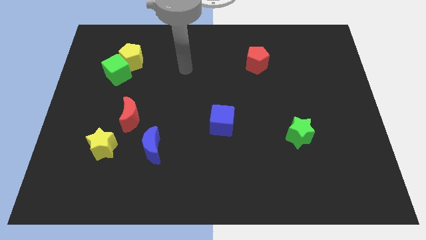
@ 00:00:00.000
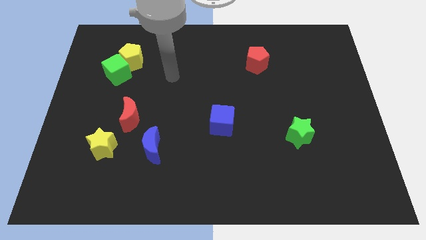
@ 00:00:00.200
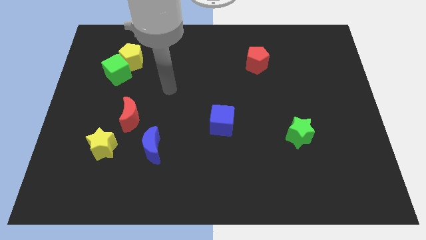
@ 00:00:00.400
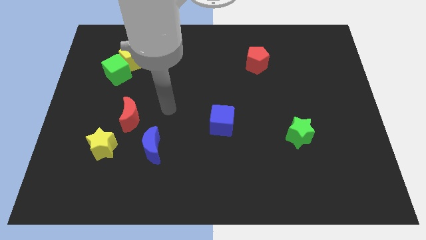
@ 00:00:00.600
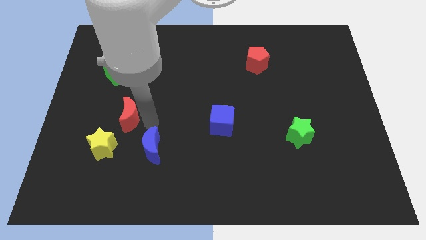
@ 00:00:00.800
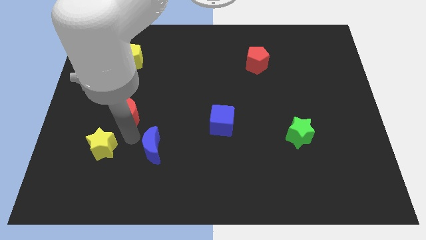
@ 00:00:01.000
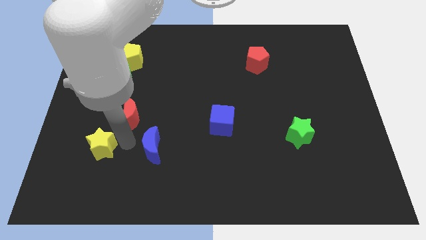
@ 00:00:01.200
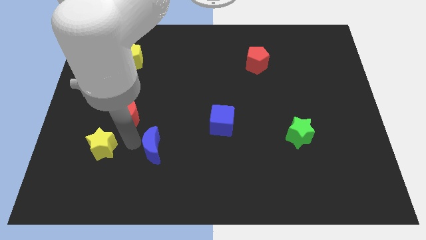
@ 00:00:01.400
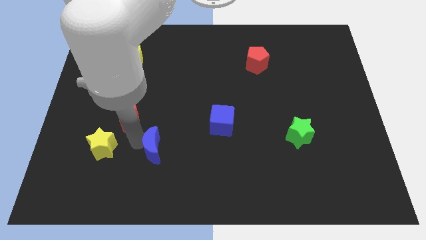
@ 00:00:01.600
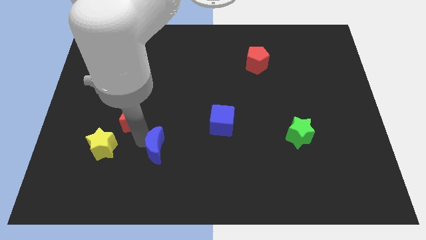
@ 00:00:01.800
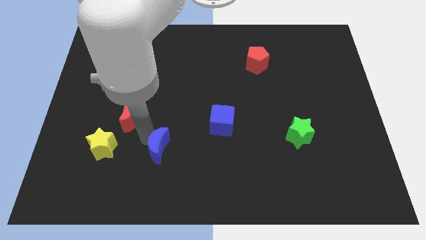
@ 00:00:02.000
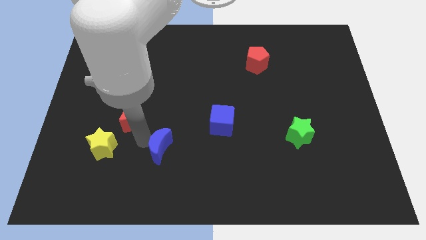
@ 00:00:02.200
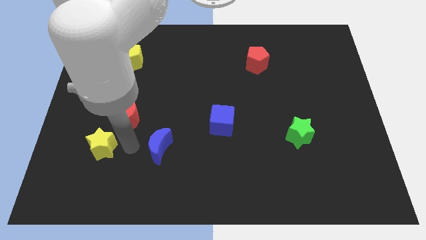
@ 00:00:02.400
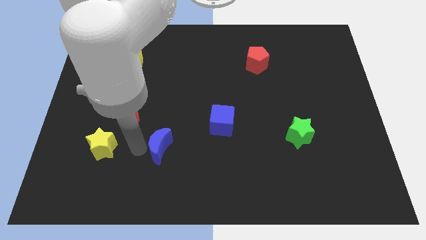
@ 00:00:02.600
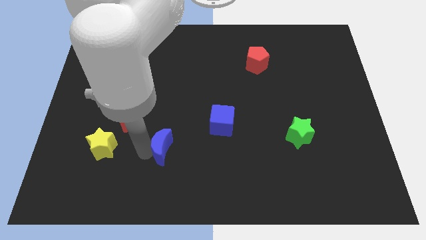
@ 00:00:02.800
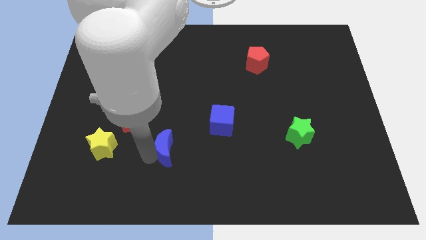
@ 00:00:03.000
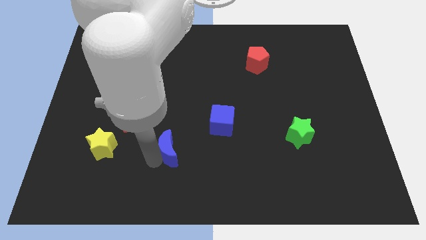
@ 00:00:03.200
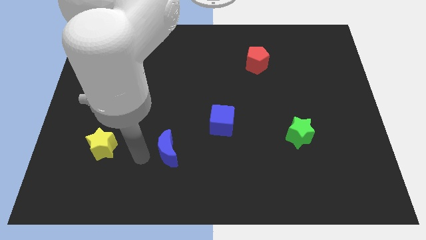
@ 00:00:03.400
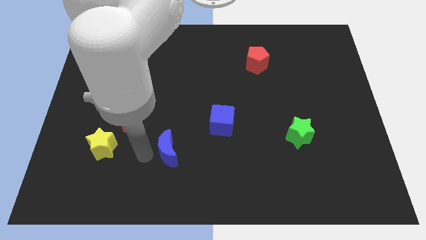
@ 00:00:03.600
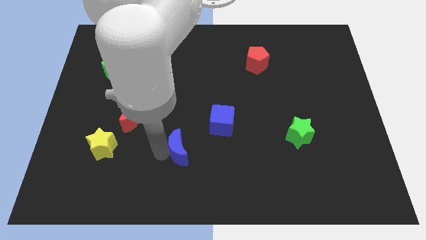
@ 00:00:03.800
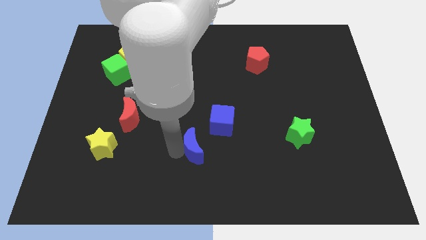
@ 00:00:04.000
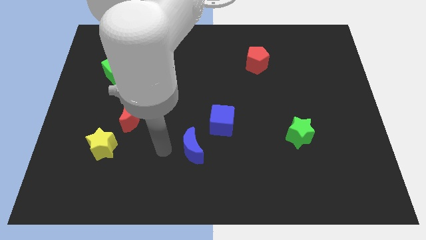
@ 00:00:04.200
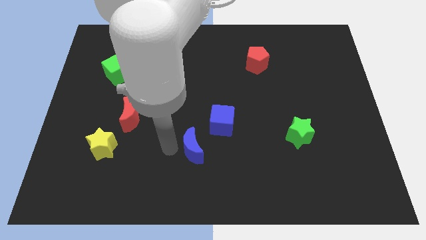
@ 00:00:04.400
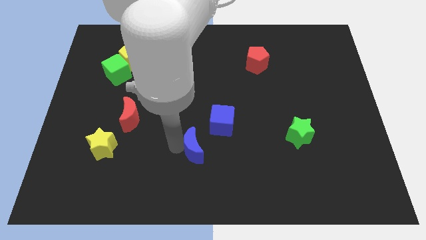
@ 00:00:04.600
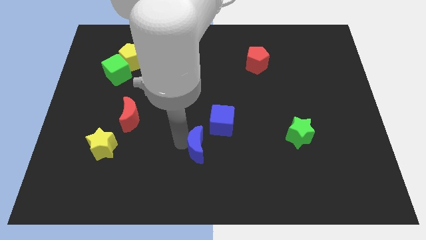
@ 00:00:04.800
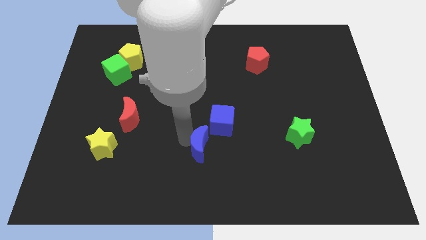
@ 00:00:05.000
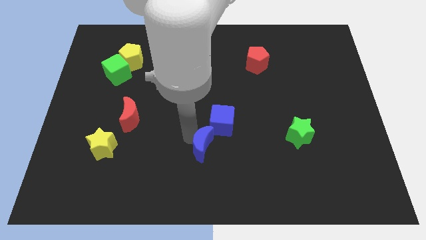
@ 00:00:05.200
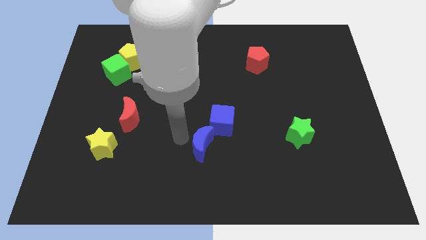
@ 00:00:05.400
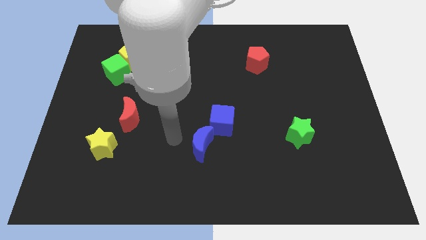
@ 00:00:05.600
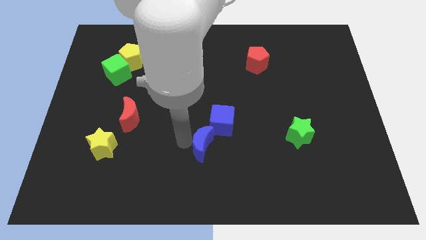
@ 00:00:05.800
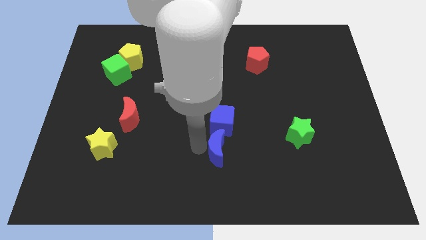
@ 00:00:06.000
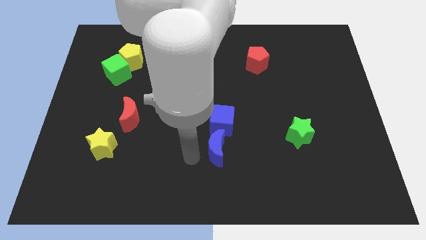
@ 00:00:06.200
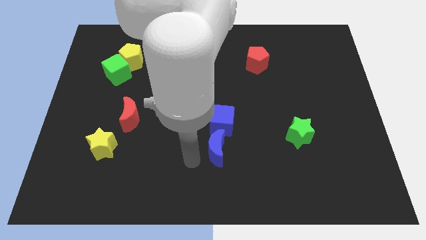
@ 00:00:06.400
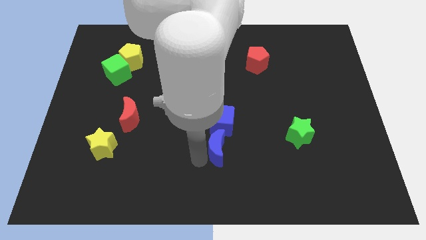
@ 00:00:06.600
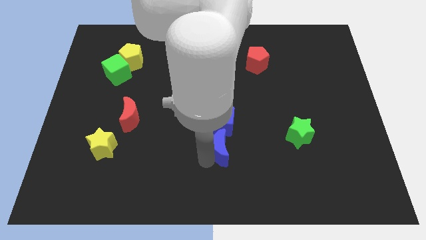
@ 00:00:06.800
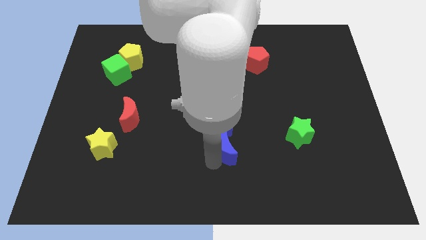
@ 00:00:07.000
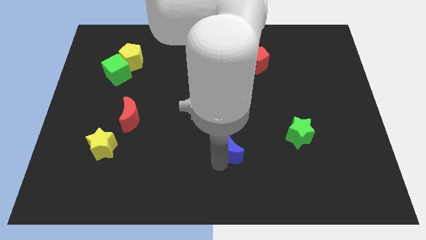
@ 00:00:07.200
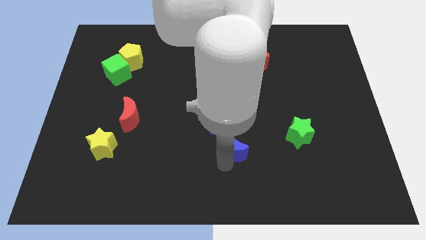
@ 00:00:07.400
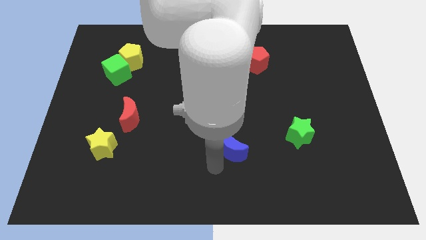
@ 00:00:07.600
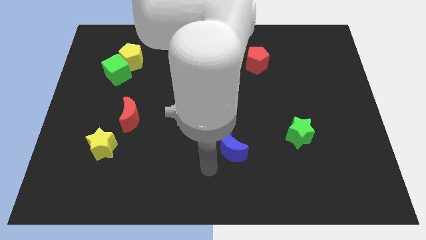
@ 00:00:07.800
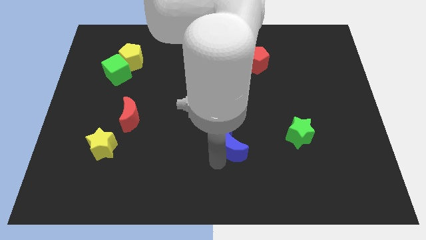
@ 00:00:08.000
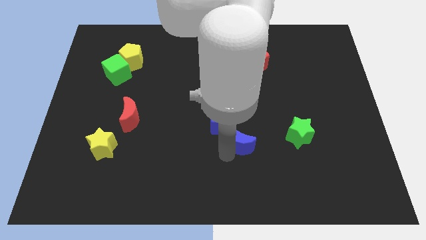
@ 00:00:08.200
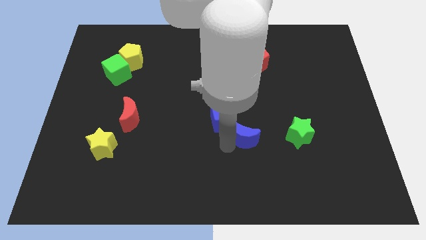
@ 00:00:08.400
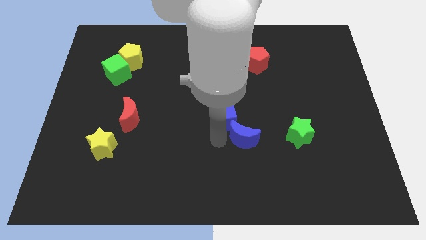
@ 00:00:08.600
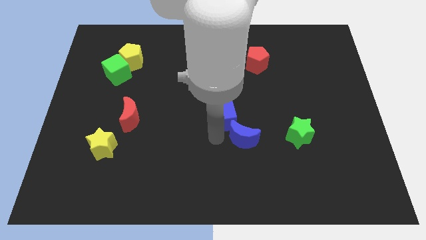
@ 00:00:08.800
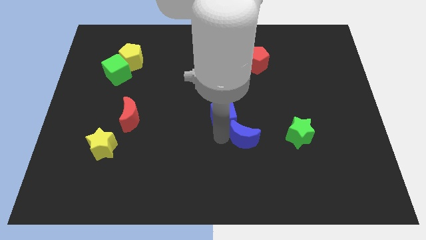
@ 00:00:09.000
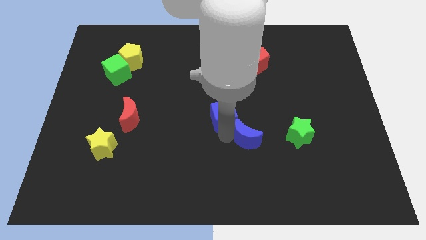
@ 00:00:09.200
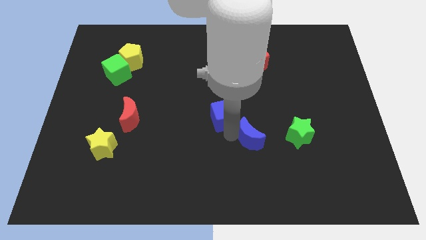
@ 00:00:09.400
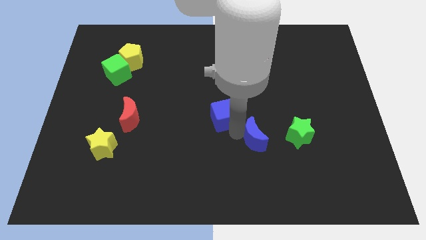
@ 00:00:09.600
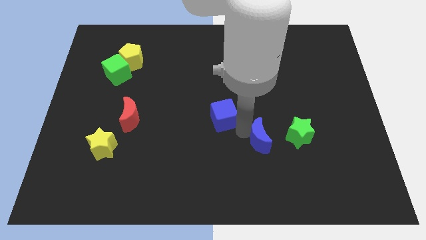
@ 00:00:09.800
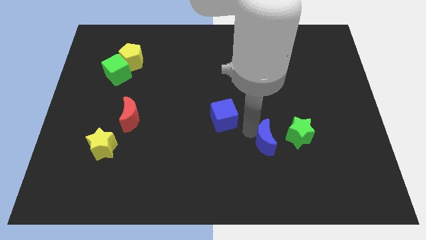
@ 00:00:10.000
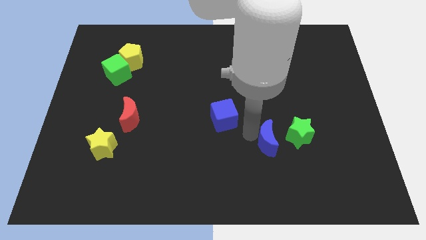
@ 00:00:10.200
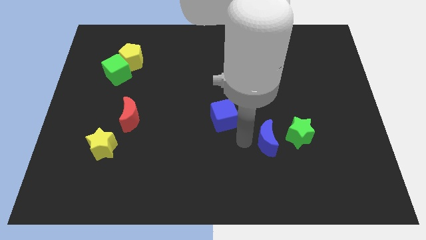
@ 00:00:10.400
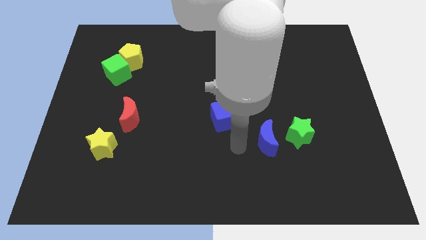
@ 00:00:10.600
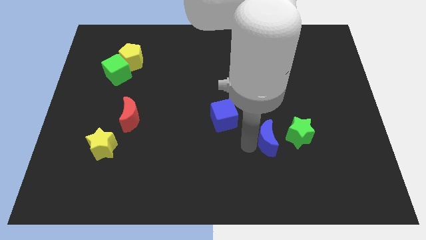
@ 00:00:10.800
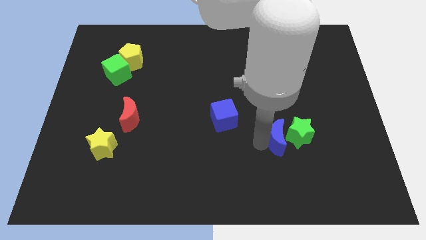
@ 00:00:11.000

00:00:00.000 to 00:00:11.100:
slide the blue moon next to the green star

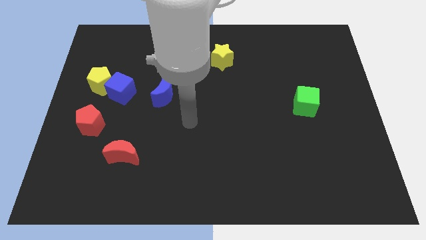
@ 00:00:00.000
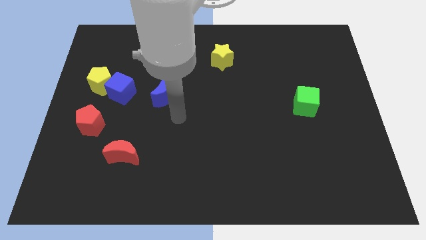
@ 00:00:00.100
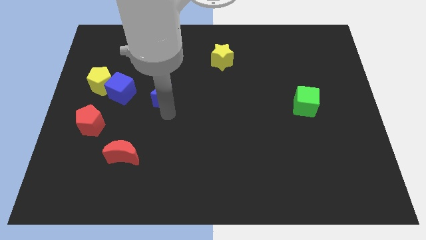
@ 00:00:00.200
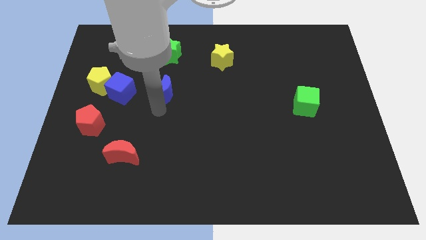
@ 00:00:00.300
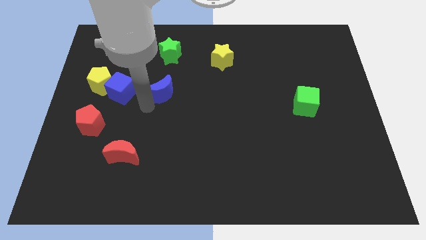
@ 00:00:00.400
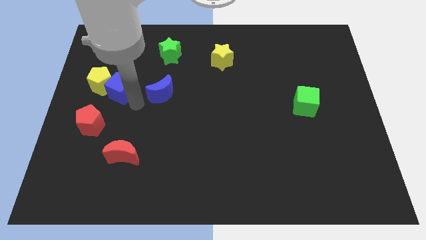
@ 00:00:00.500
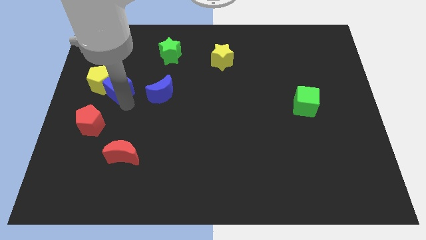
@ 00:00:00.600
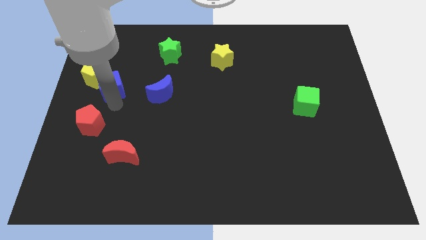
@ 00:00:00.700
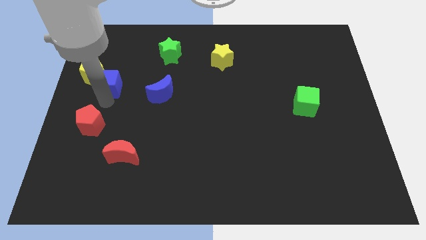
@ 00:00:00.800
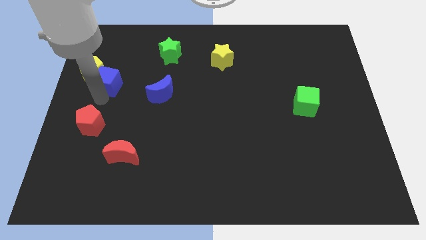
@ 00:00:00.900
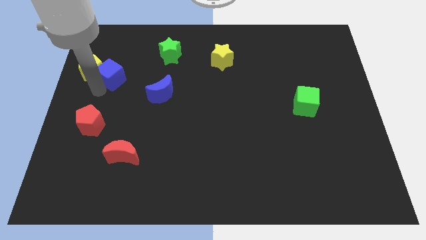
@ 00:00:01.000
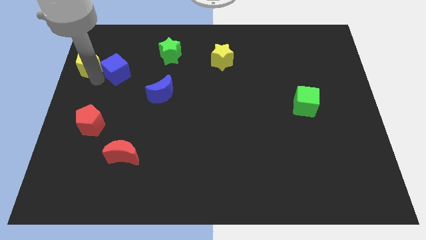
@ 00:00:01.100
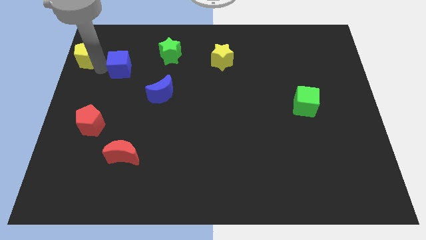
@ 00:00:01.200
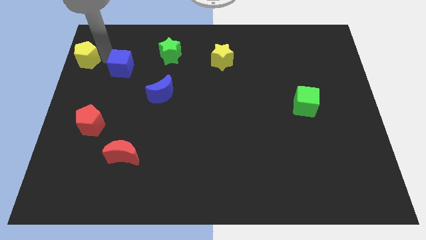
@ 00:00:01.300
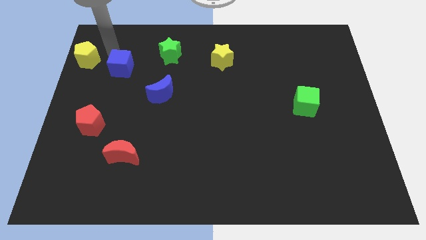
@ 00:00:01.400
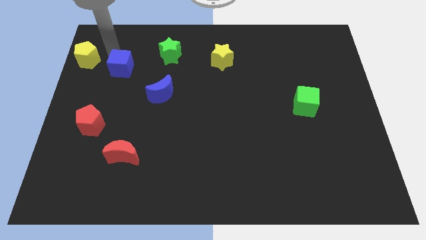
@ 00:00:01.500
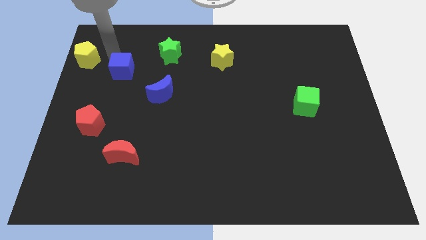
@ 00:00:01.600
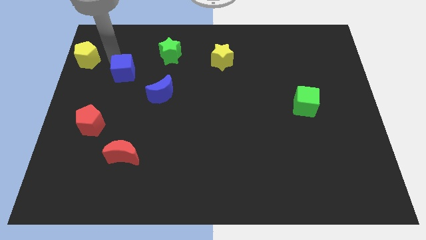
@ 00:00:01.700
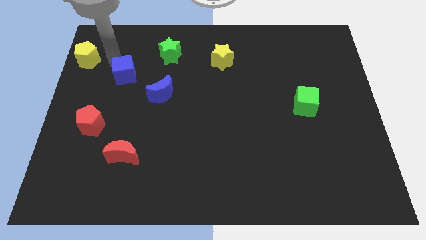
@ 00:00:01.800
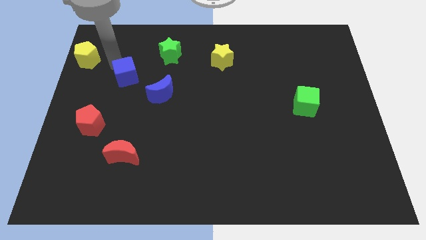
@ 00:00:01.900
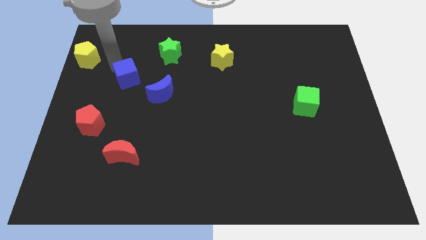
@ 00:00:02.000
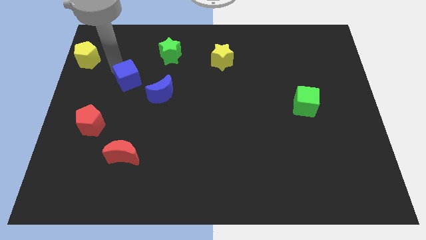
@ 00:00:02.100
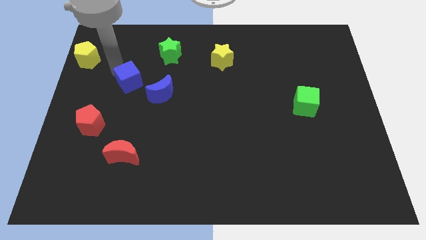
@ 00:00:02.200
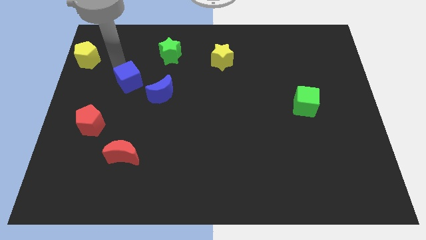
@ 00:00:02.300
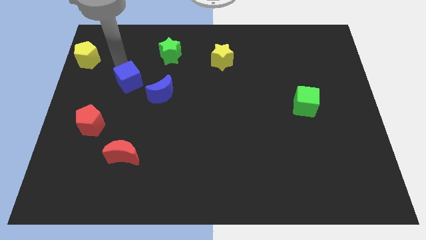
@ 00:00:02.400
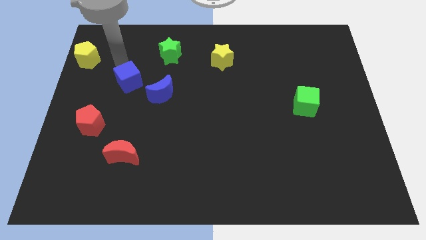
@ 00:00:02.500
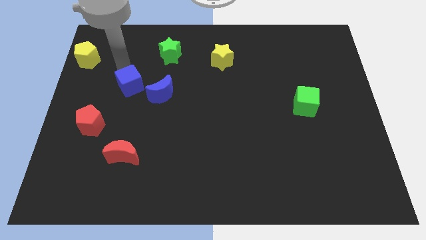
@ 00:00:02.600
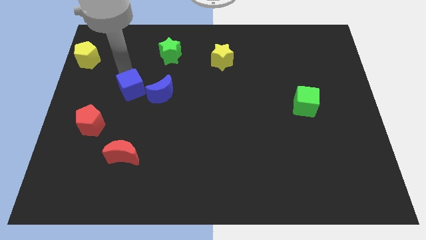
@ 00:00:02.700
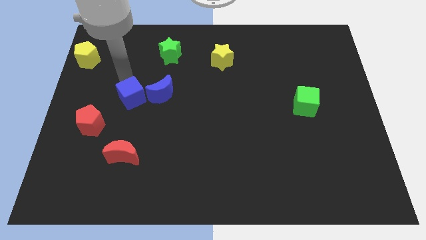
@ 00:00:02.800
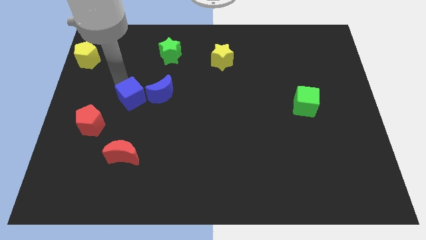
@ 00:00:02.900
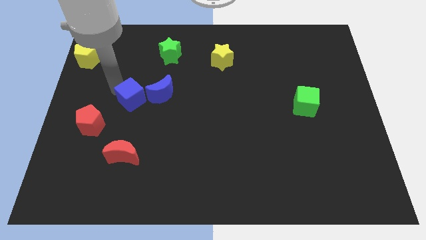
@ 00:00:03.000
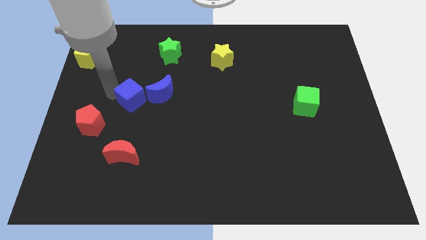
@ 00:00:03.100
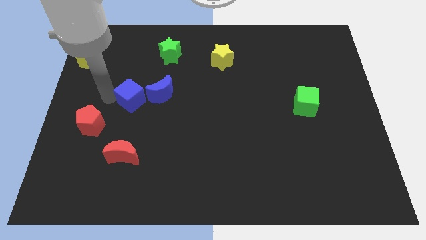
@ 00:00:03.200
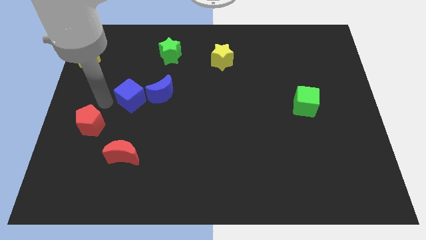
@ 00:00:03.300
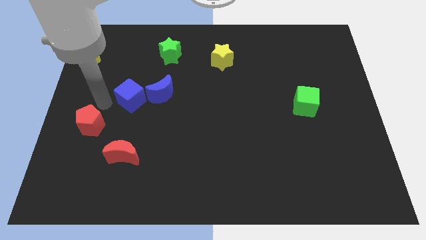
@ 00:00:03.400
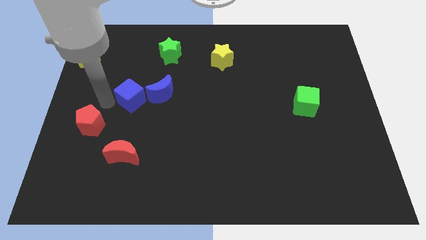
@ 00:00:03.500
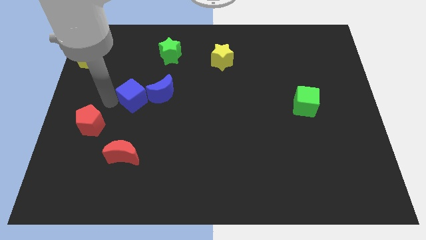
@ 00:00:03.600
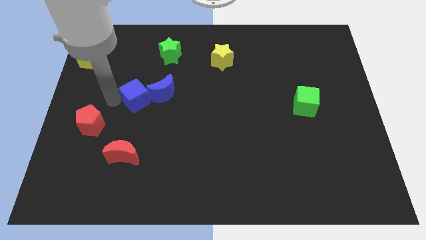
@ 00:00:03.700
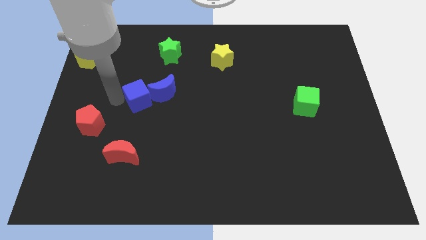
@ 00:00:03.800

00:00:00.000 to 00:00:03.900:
put the blue cube to the blue moon
